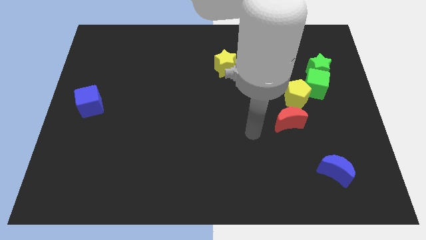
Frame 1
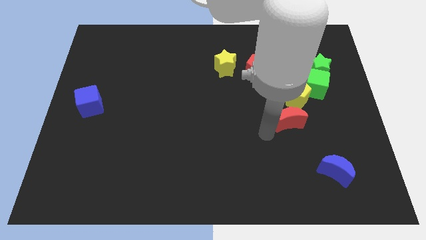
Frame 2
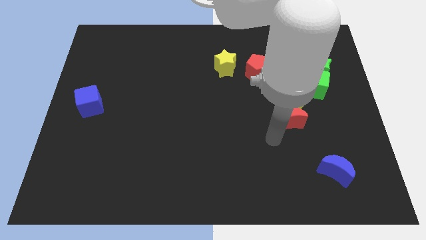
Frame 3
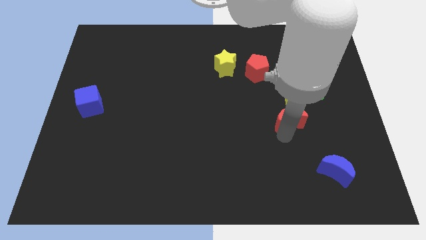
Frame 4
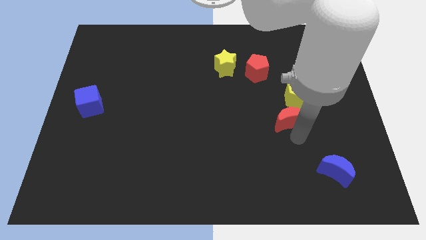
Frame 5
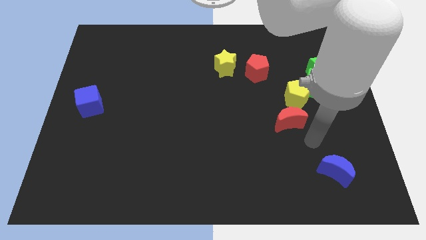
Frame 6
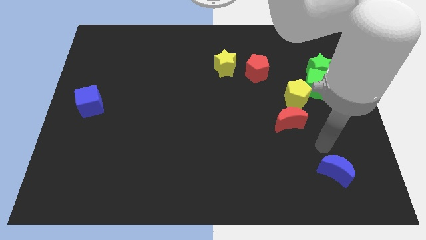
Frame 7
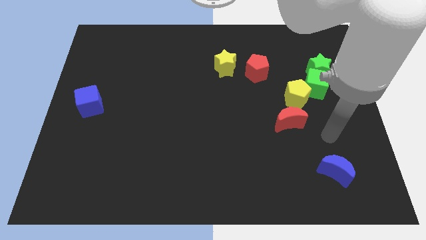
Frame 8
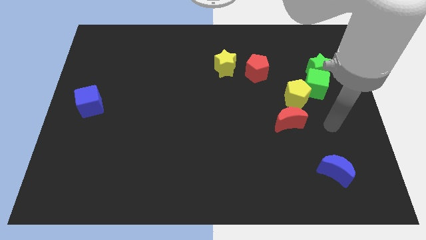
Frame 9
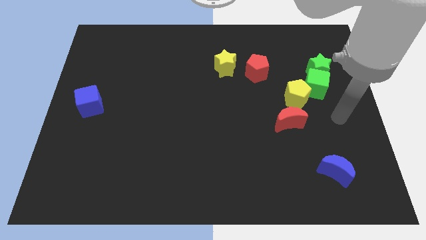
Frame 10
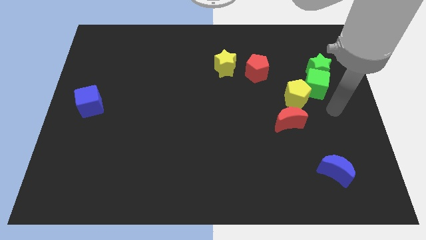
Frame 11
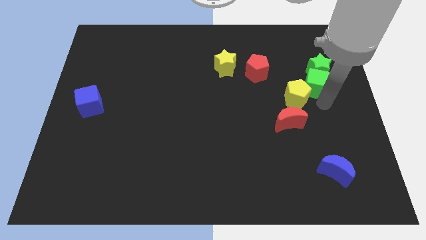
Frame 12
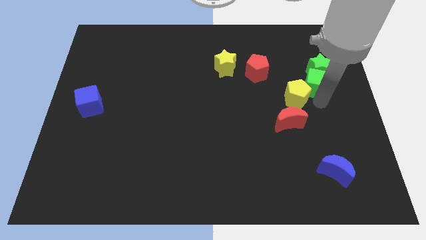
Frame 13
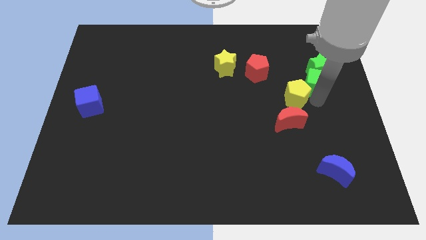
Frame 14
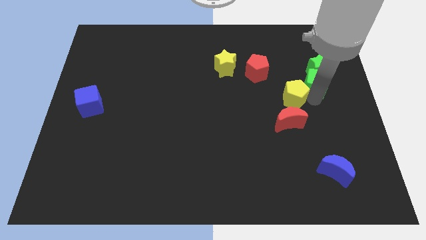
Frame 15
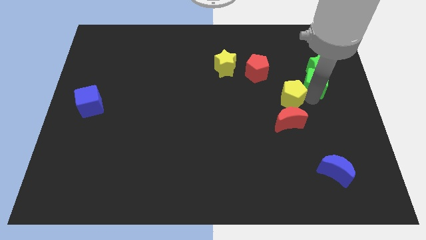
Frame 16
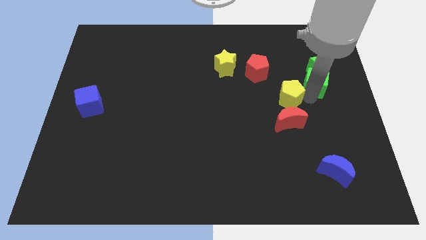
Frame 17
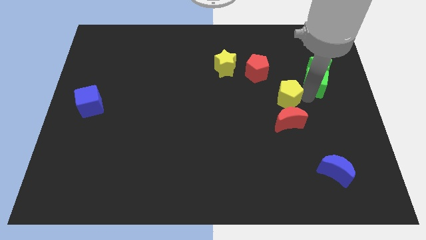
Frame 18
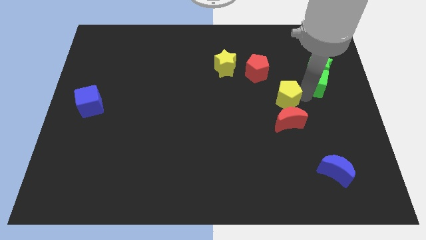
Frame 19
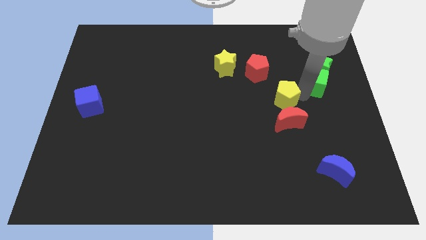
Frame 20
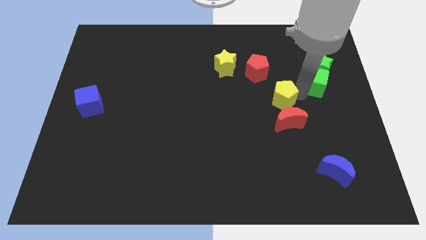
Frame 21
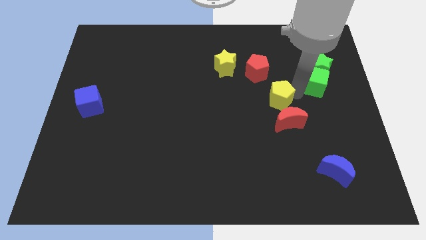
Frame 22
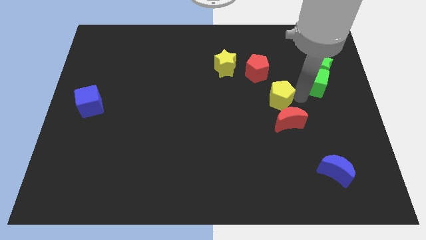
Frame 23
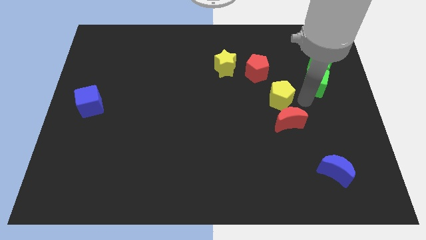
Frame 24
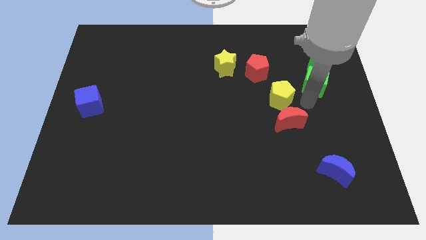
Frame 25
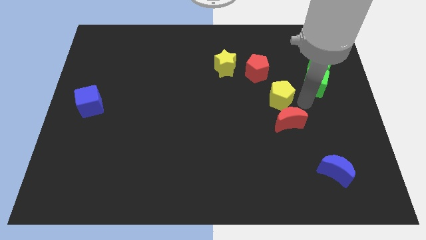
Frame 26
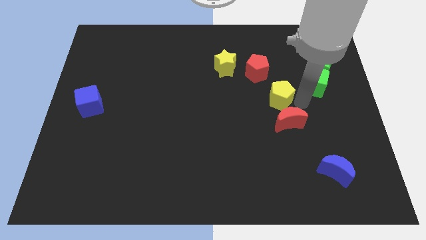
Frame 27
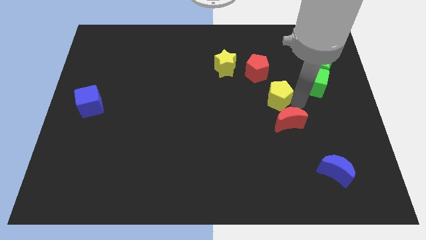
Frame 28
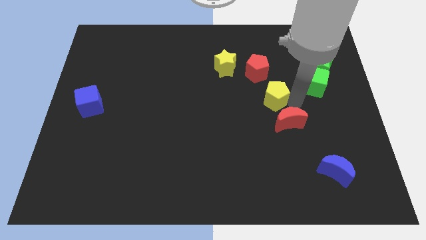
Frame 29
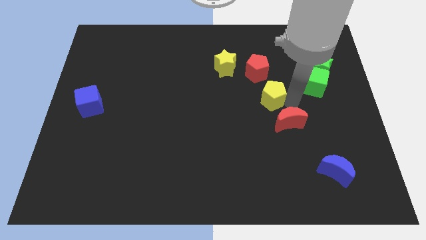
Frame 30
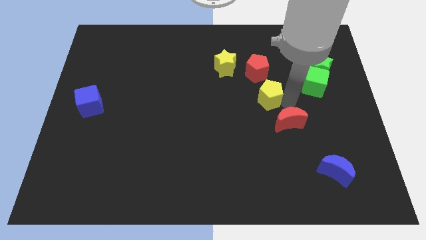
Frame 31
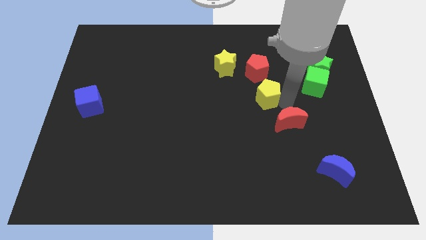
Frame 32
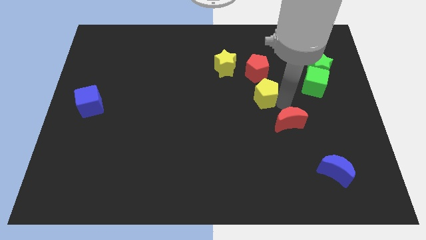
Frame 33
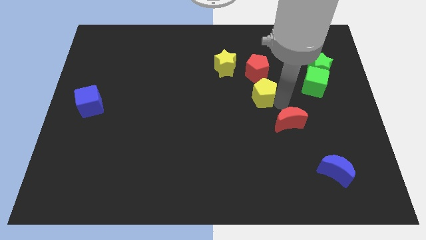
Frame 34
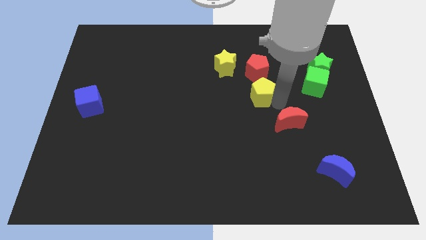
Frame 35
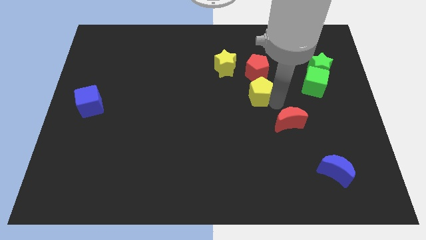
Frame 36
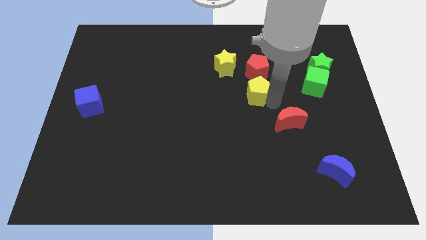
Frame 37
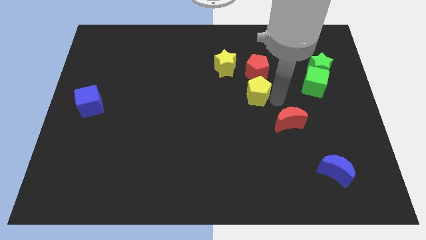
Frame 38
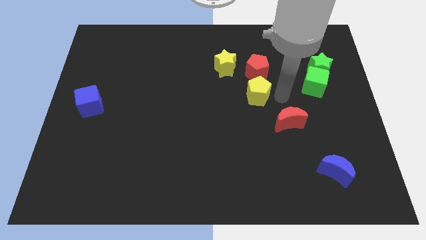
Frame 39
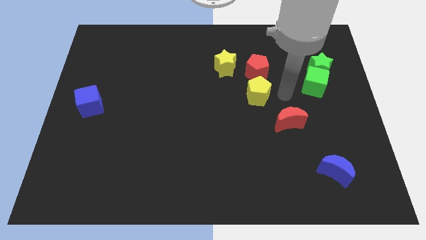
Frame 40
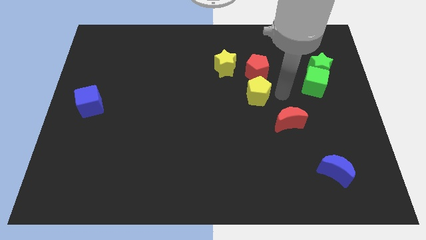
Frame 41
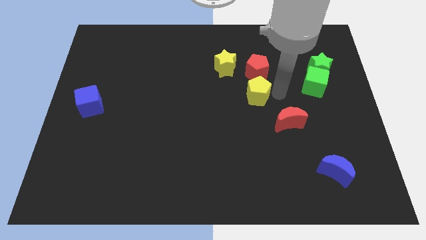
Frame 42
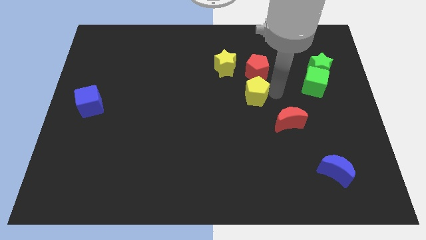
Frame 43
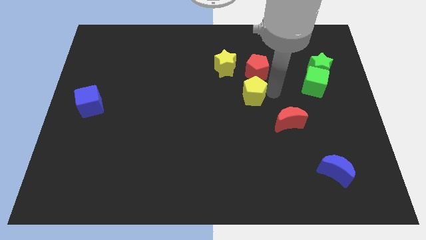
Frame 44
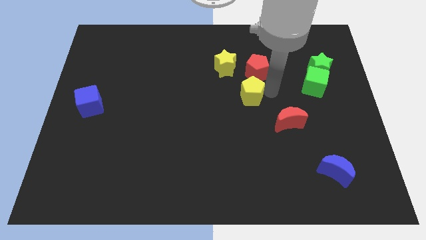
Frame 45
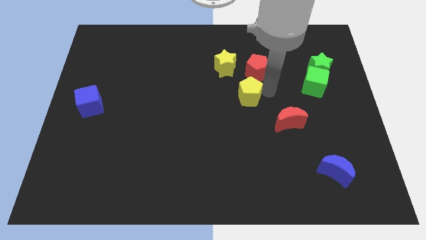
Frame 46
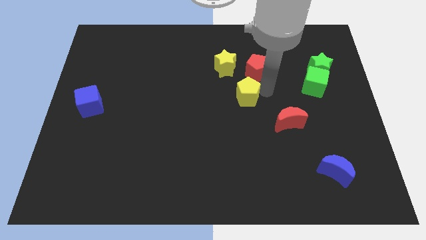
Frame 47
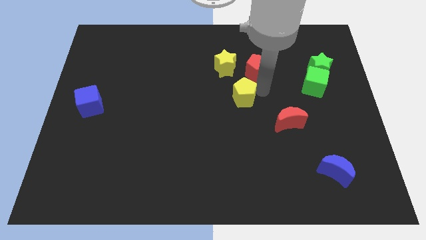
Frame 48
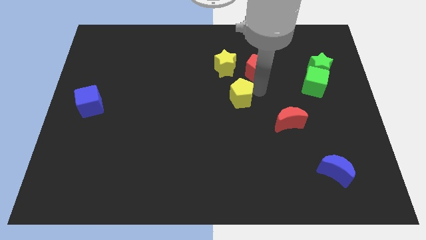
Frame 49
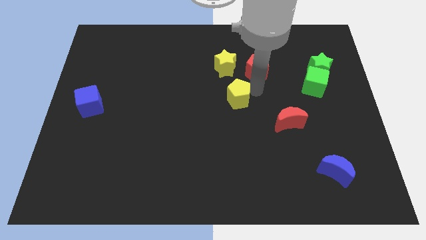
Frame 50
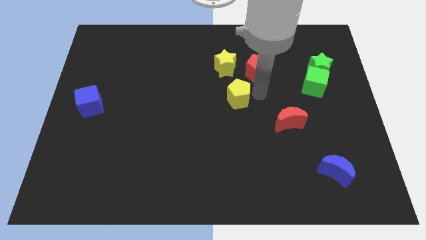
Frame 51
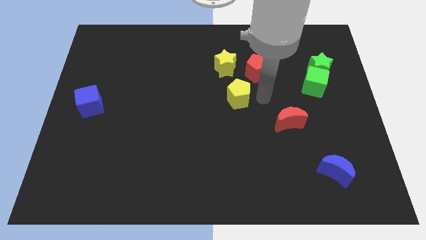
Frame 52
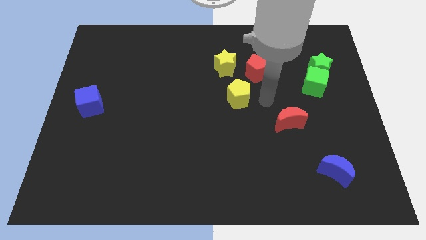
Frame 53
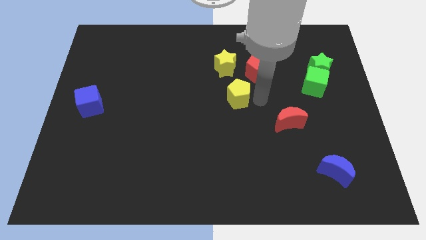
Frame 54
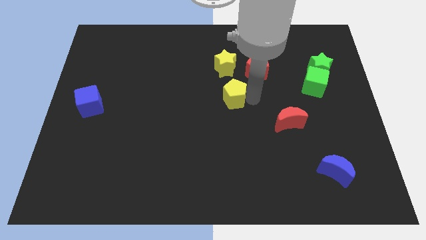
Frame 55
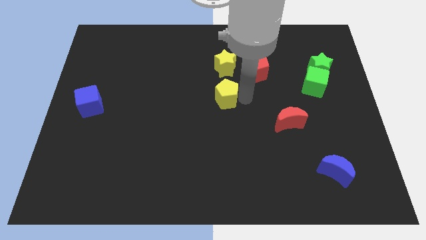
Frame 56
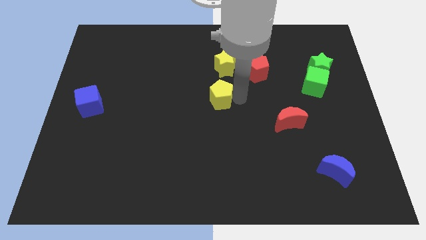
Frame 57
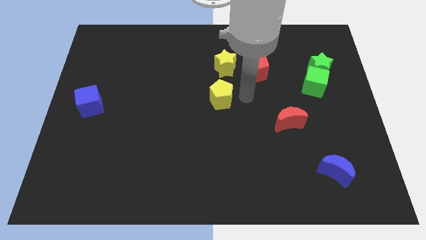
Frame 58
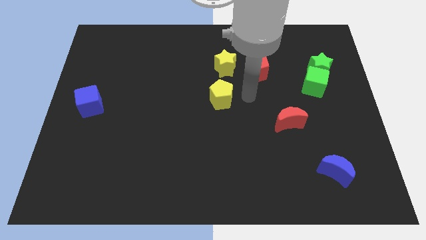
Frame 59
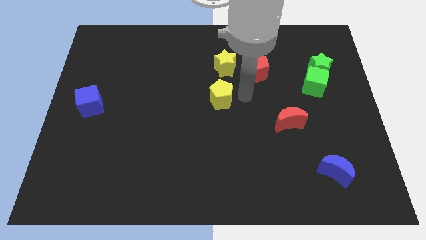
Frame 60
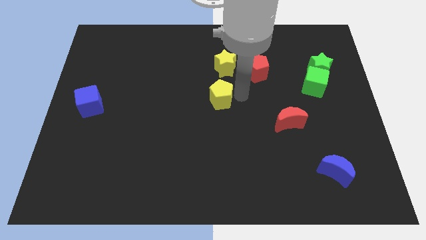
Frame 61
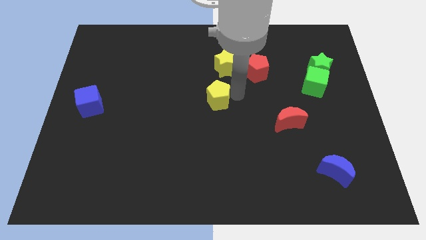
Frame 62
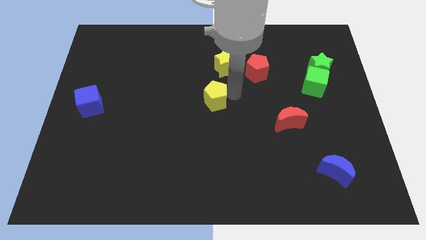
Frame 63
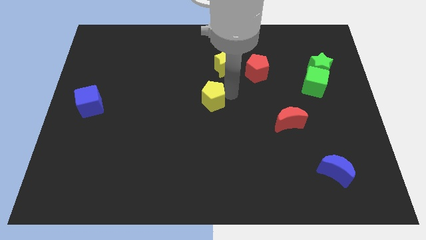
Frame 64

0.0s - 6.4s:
push the yellow pentagon left

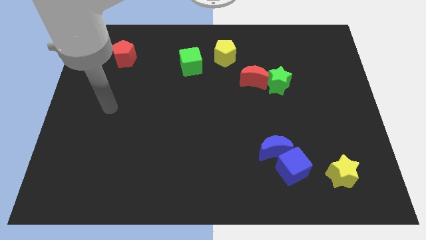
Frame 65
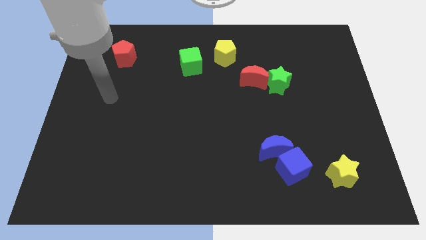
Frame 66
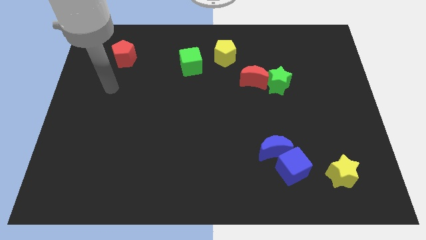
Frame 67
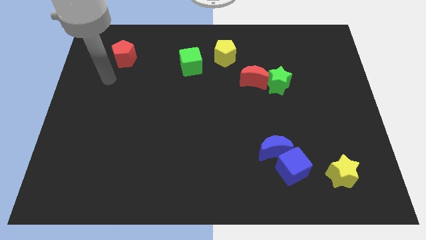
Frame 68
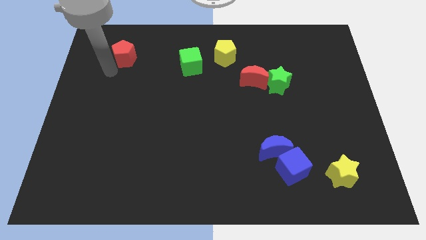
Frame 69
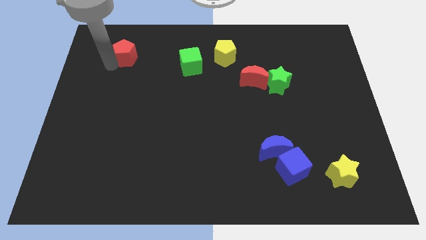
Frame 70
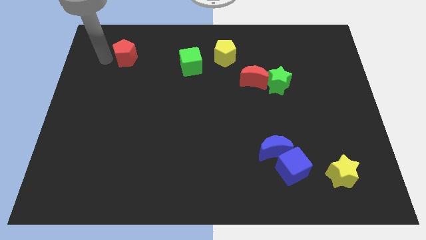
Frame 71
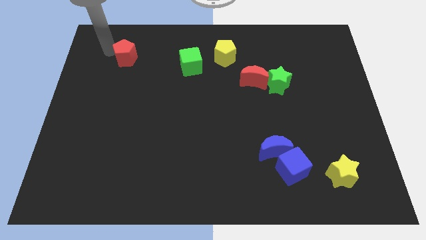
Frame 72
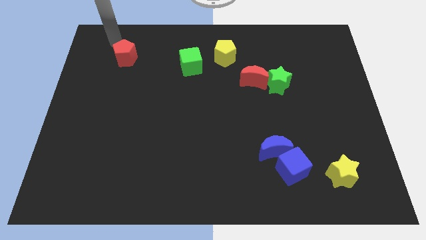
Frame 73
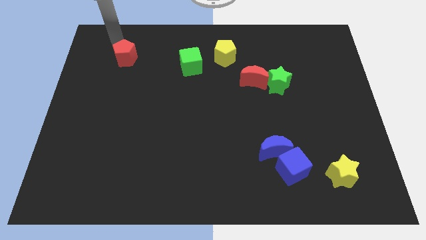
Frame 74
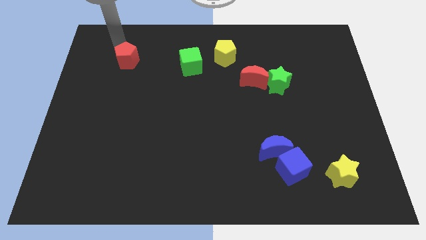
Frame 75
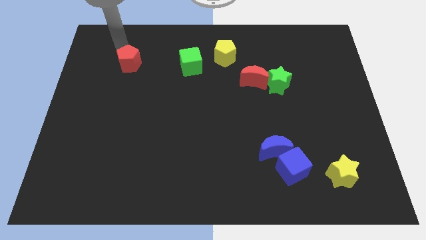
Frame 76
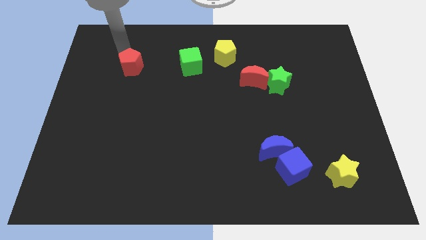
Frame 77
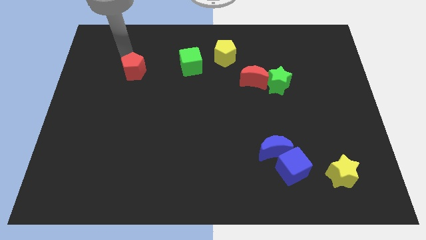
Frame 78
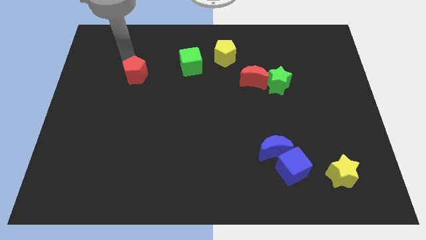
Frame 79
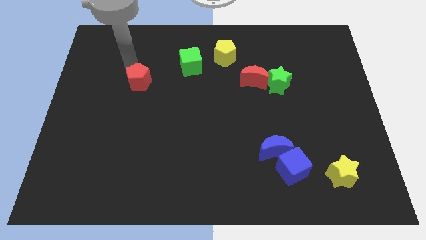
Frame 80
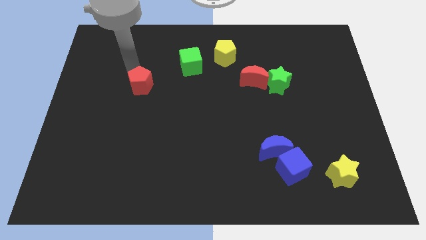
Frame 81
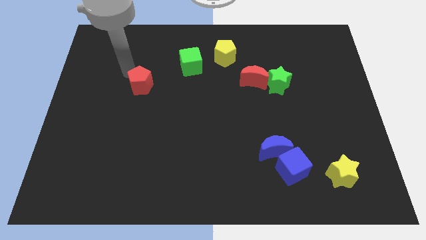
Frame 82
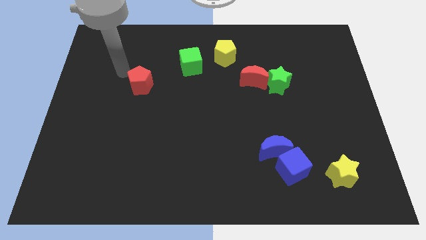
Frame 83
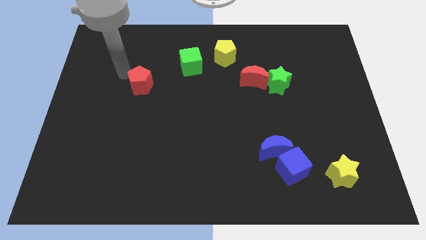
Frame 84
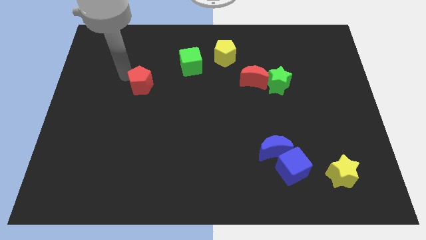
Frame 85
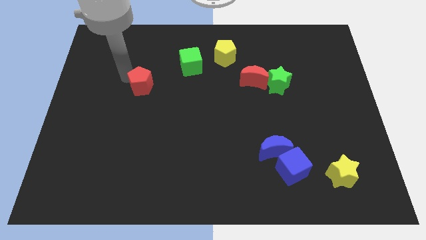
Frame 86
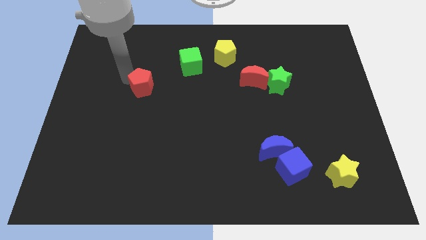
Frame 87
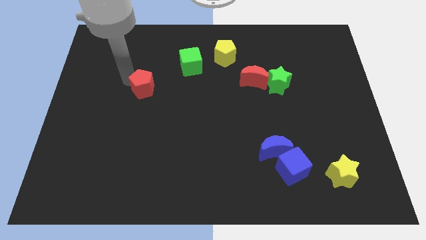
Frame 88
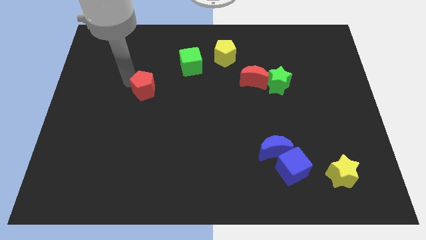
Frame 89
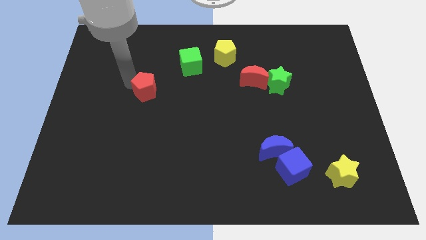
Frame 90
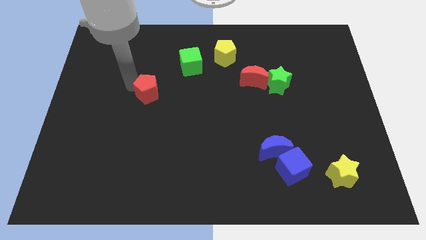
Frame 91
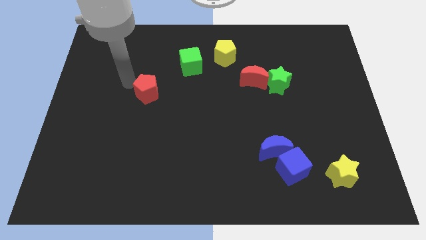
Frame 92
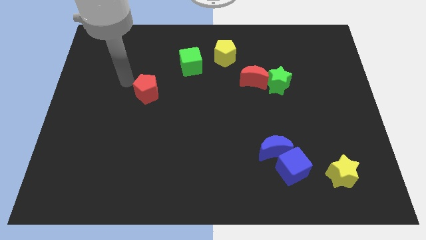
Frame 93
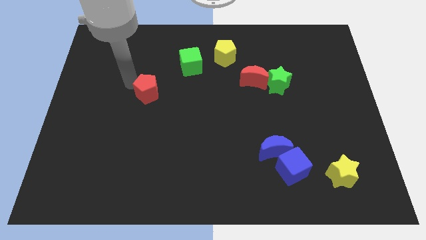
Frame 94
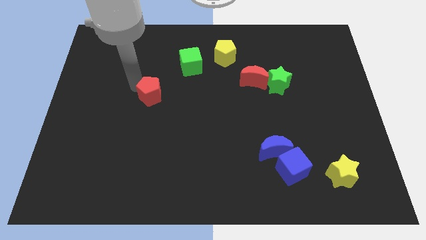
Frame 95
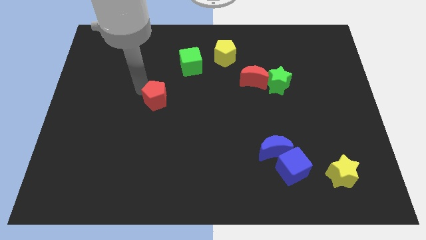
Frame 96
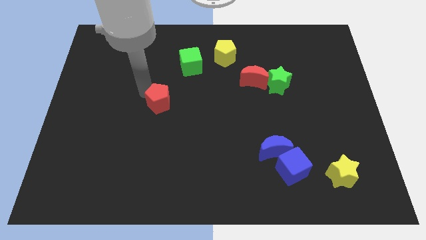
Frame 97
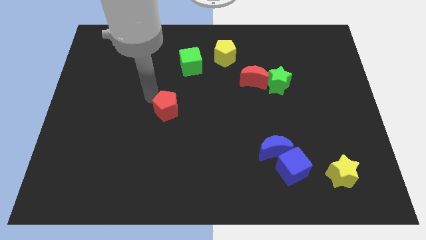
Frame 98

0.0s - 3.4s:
push the red pentagon down and right
